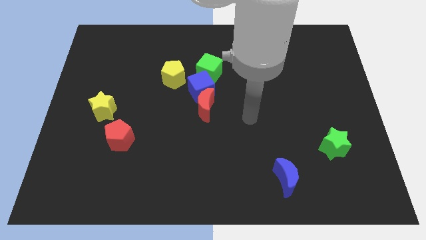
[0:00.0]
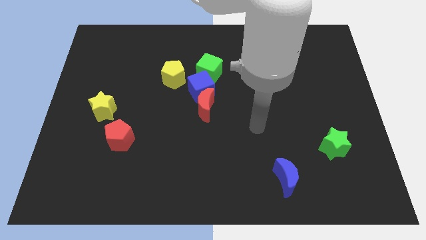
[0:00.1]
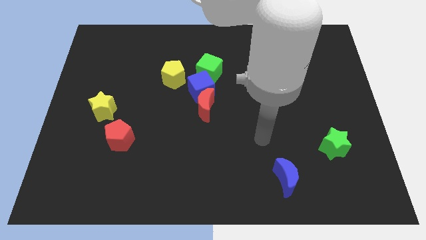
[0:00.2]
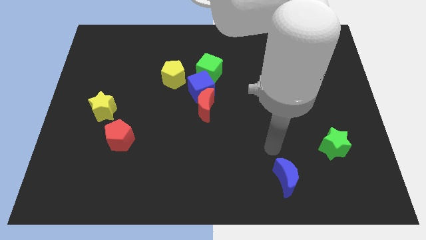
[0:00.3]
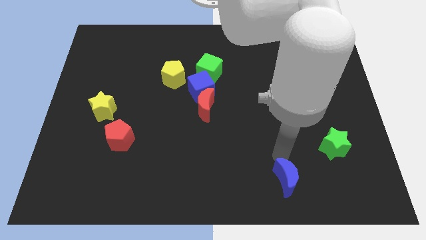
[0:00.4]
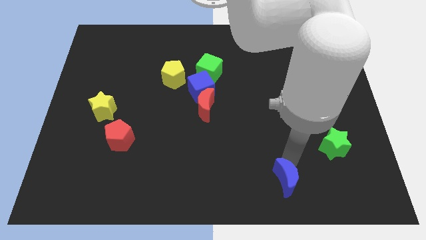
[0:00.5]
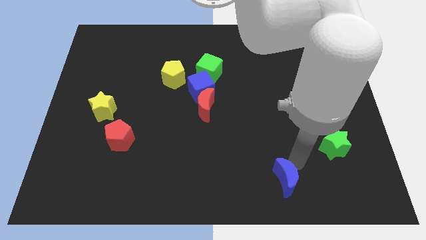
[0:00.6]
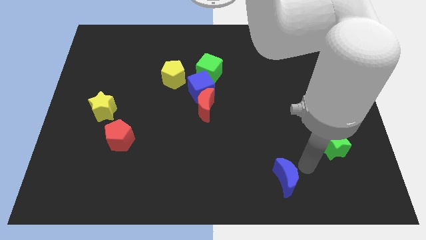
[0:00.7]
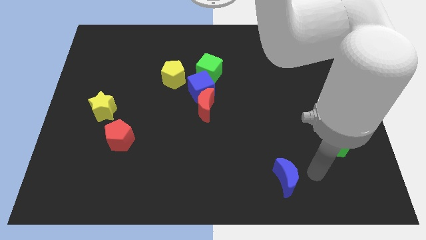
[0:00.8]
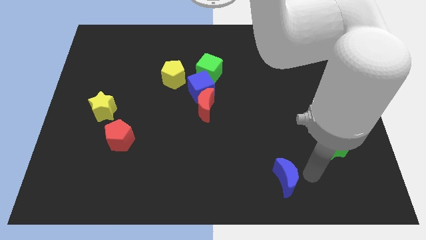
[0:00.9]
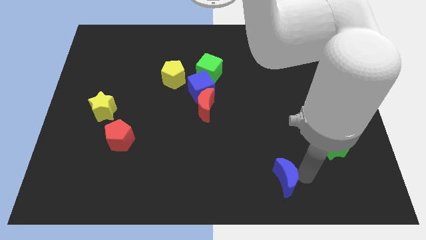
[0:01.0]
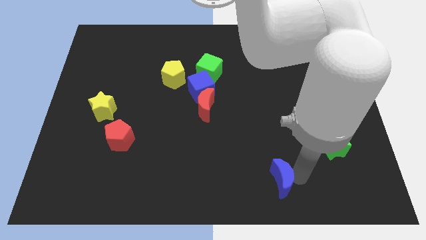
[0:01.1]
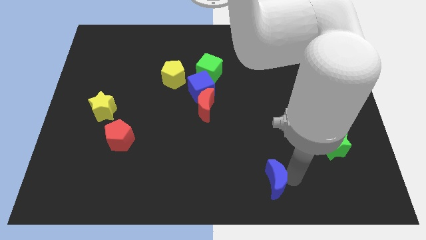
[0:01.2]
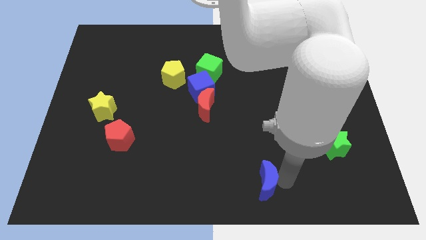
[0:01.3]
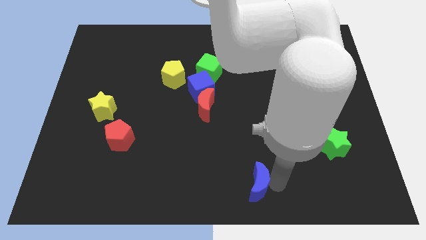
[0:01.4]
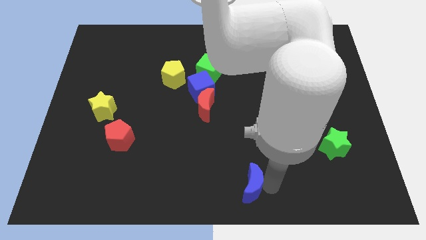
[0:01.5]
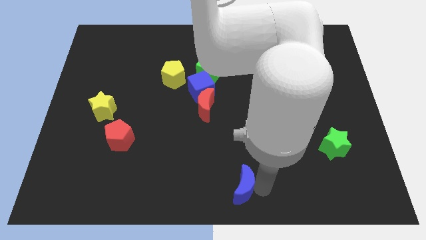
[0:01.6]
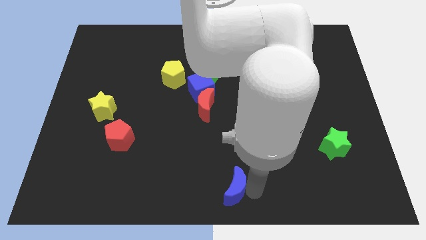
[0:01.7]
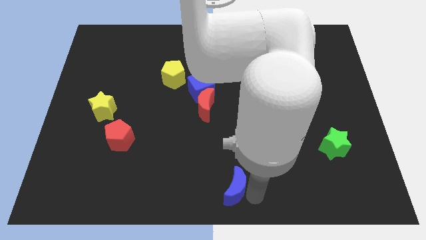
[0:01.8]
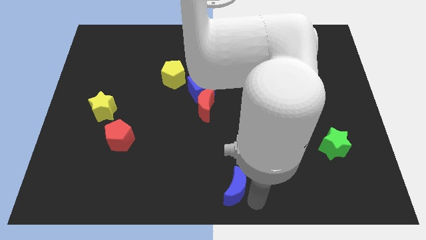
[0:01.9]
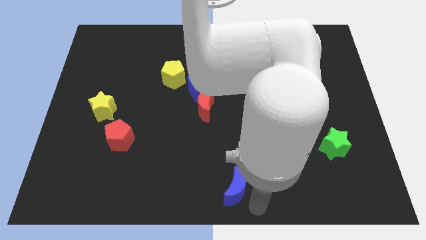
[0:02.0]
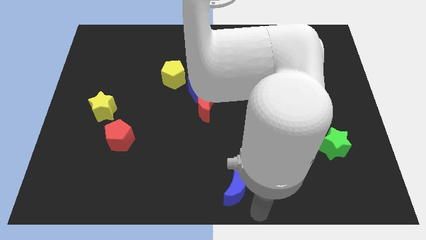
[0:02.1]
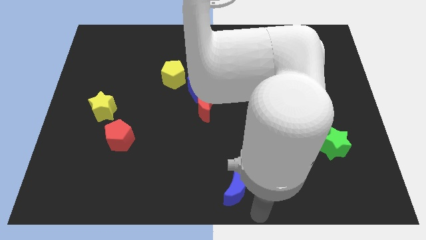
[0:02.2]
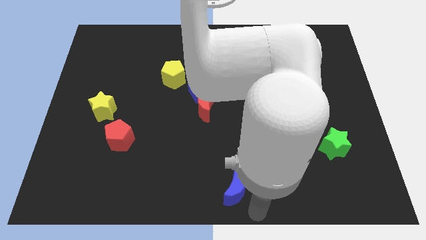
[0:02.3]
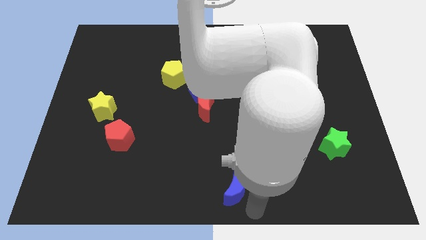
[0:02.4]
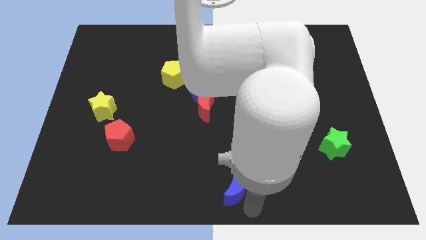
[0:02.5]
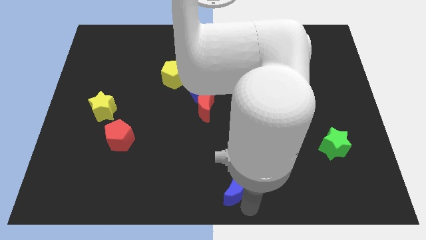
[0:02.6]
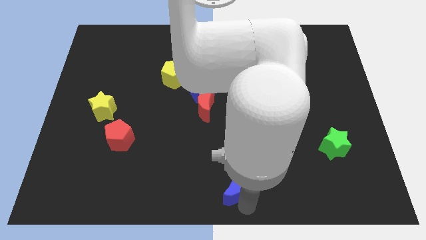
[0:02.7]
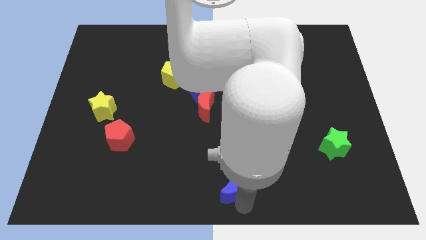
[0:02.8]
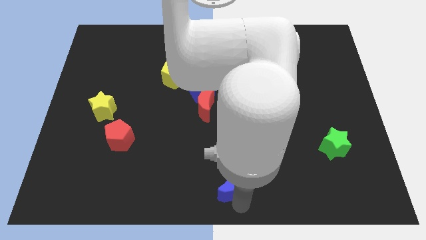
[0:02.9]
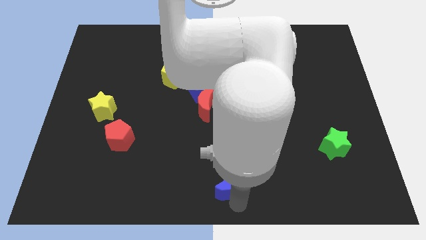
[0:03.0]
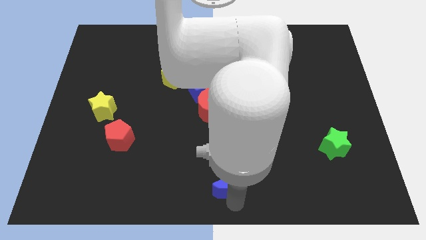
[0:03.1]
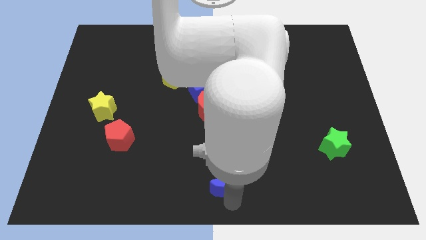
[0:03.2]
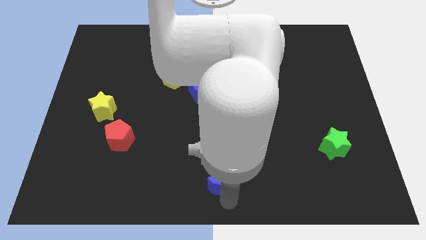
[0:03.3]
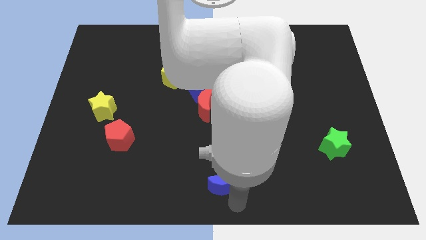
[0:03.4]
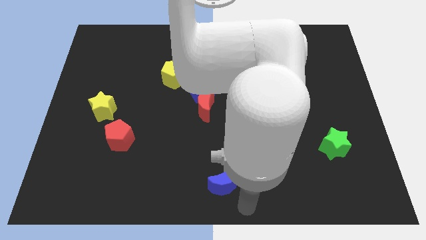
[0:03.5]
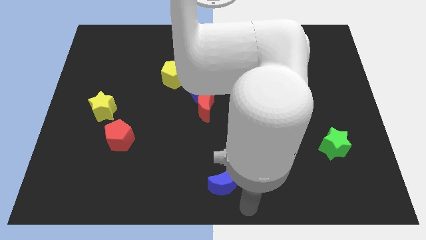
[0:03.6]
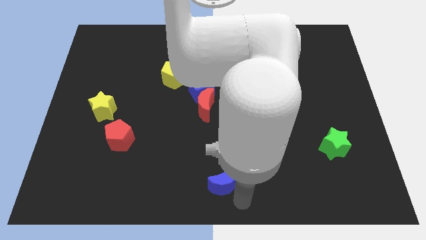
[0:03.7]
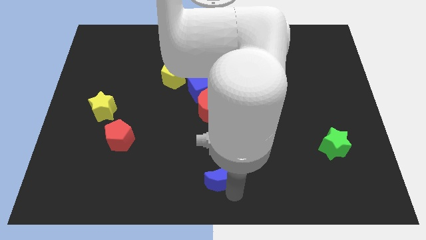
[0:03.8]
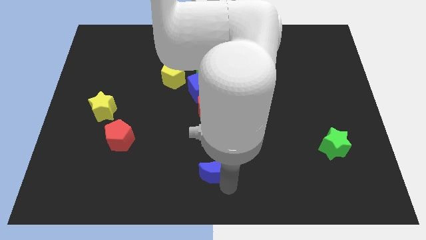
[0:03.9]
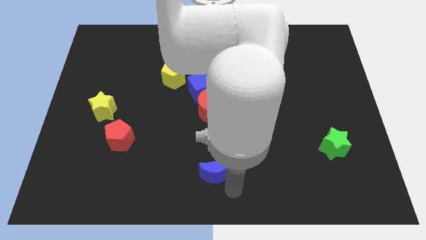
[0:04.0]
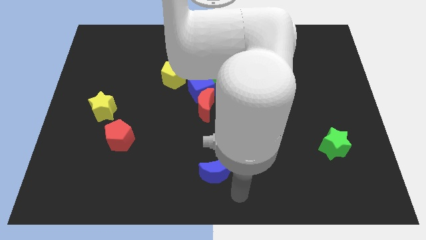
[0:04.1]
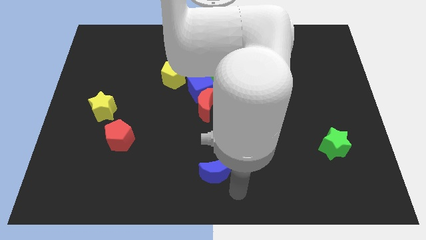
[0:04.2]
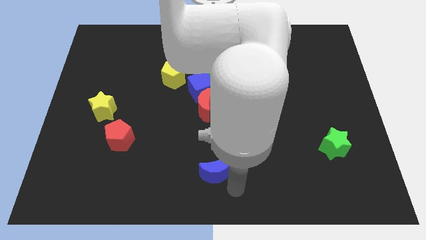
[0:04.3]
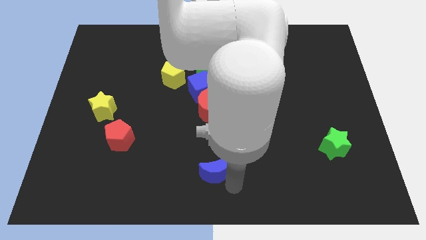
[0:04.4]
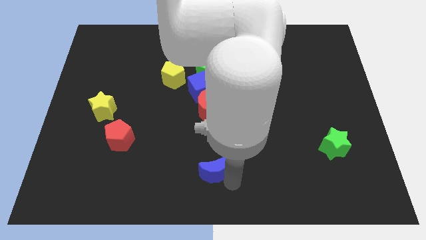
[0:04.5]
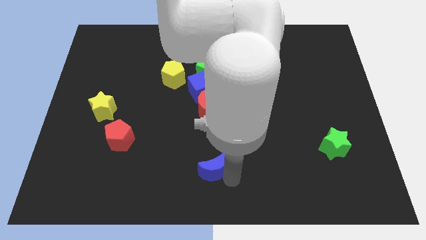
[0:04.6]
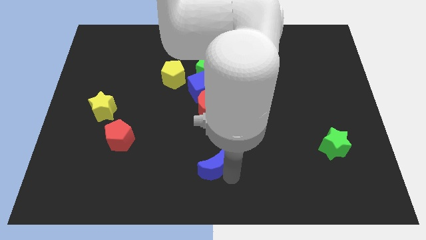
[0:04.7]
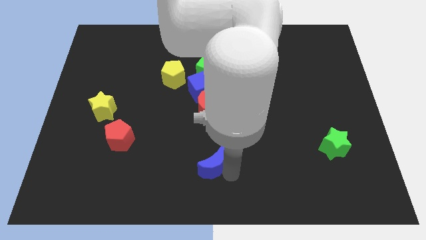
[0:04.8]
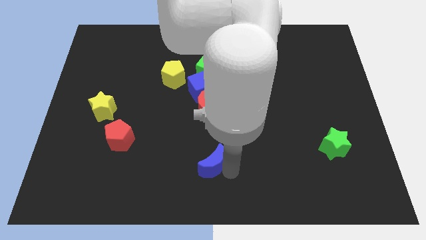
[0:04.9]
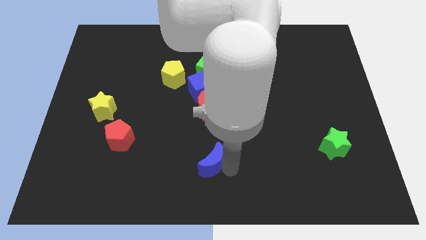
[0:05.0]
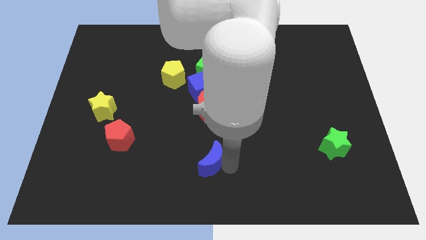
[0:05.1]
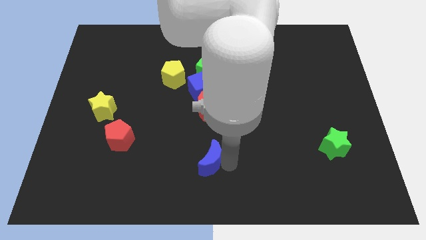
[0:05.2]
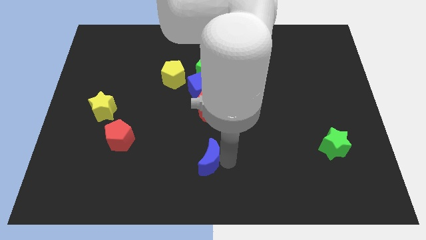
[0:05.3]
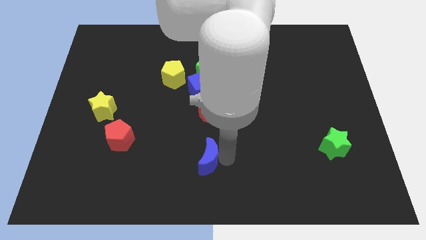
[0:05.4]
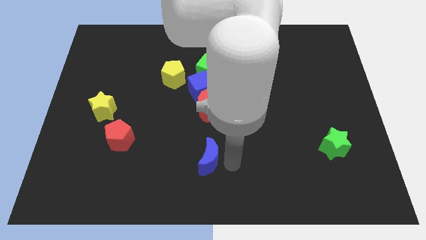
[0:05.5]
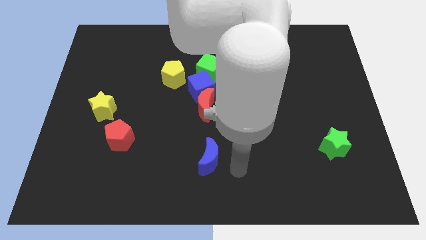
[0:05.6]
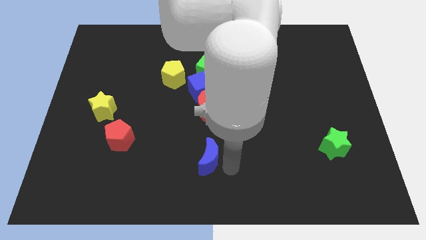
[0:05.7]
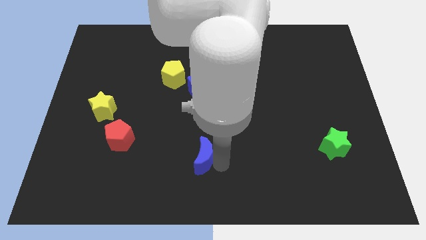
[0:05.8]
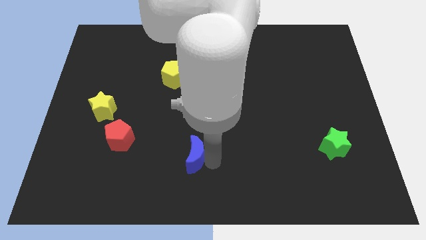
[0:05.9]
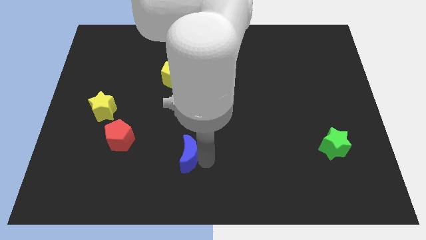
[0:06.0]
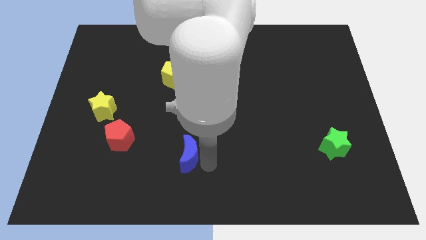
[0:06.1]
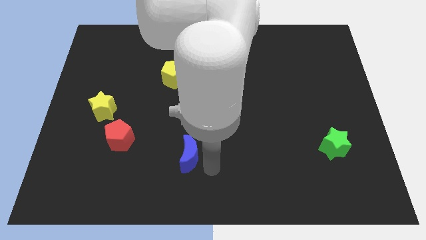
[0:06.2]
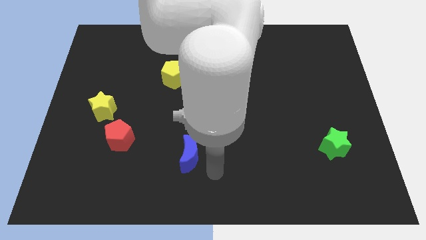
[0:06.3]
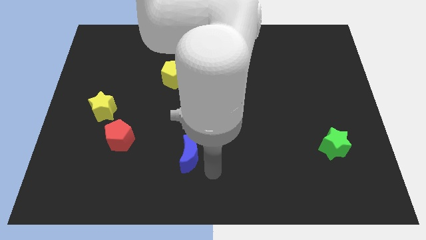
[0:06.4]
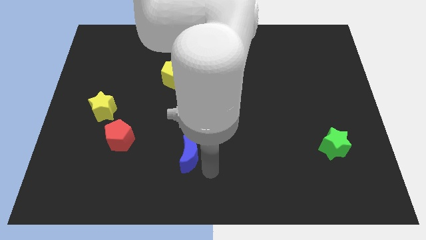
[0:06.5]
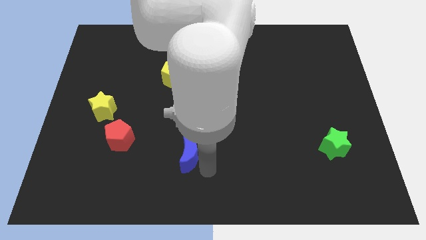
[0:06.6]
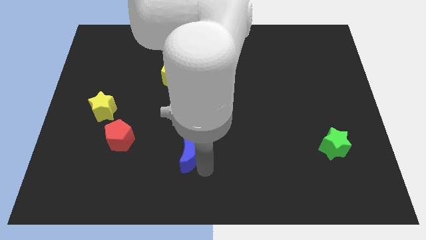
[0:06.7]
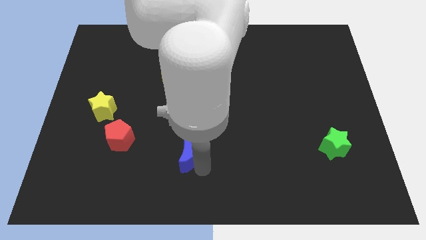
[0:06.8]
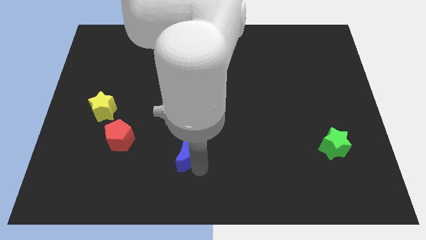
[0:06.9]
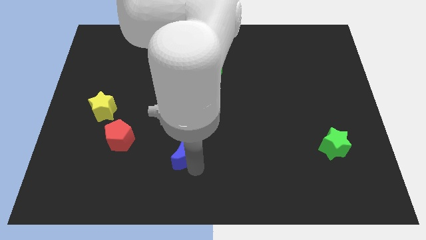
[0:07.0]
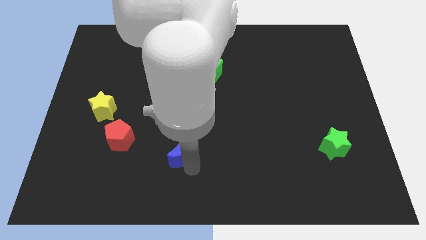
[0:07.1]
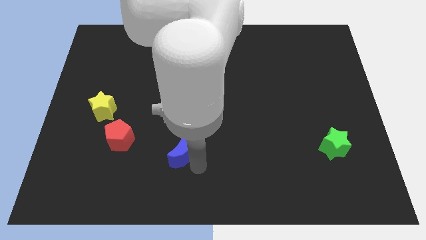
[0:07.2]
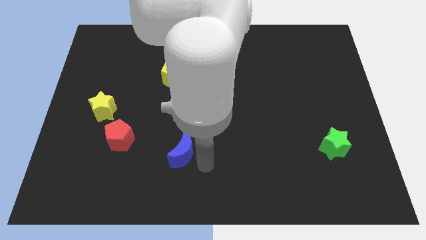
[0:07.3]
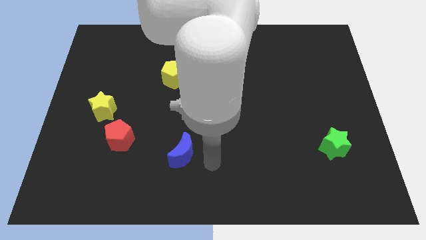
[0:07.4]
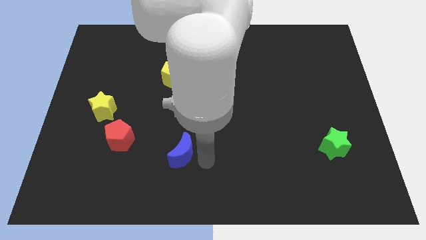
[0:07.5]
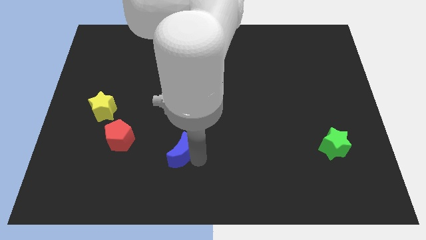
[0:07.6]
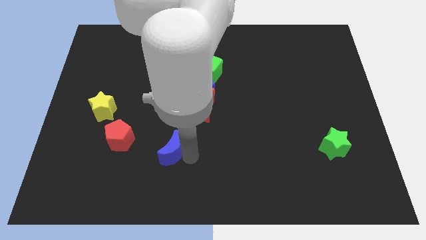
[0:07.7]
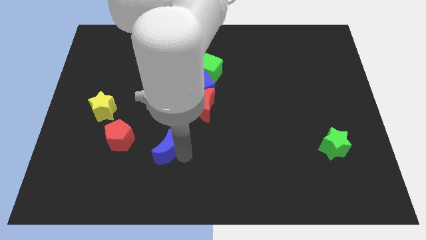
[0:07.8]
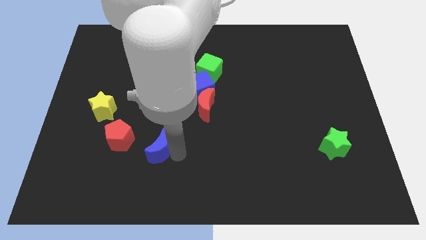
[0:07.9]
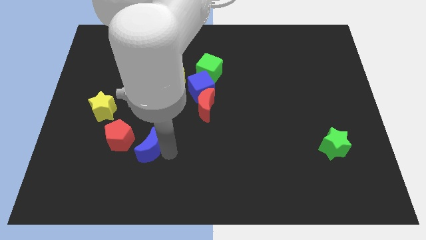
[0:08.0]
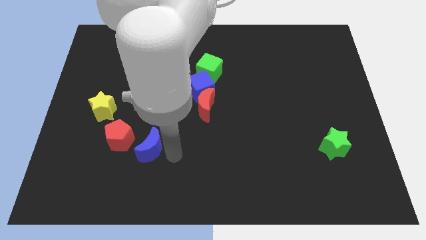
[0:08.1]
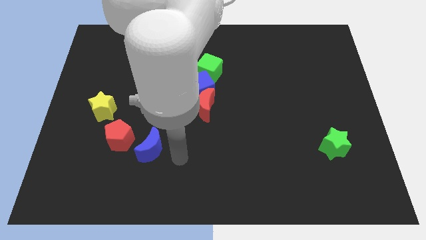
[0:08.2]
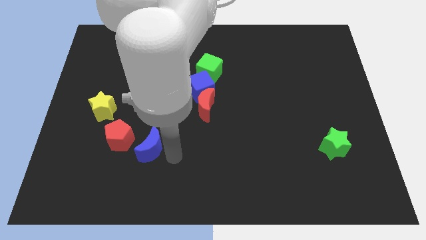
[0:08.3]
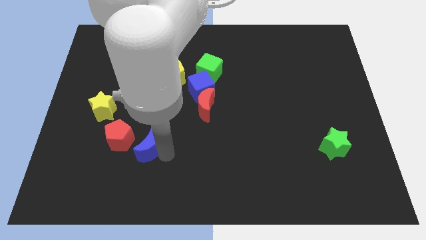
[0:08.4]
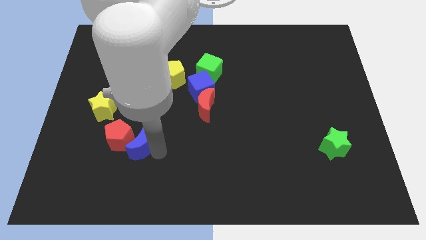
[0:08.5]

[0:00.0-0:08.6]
push the blue moon close to the red pentagon
